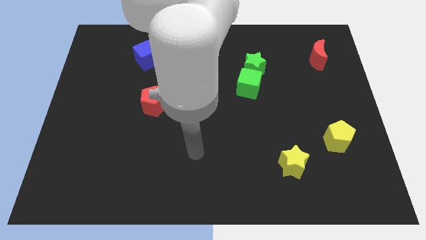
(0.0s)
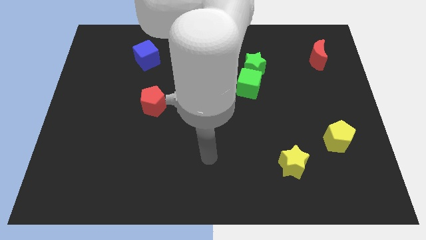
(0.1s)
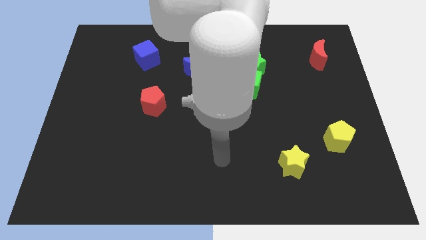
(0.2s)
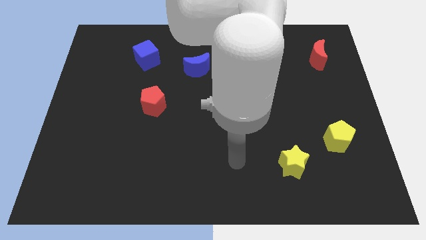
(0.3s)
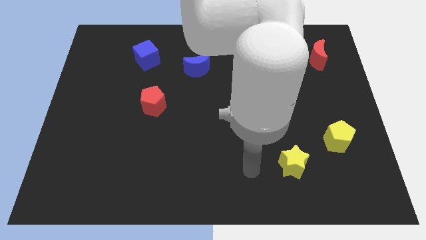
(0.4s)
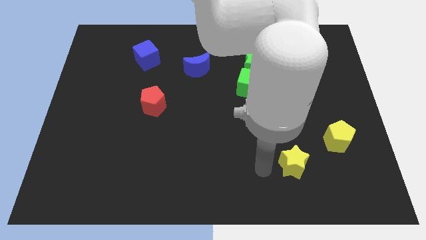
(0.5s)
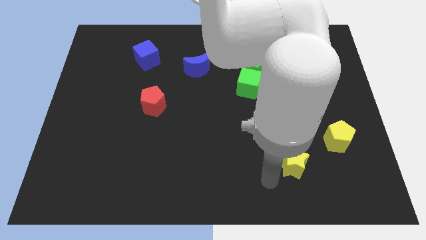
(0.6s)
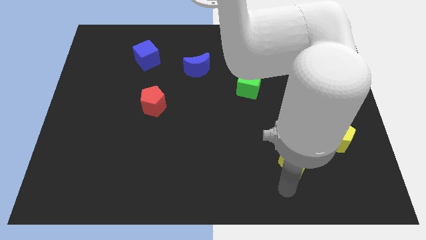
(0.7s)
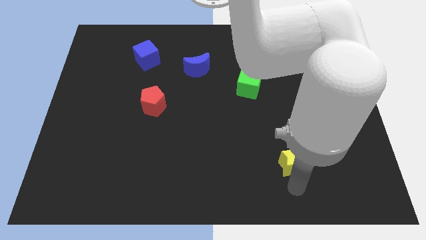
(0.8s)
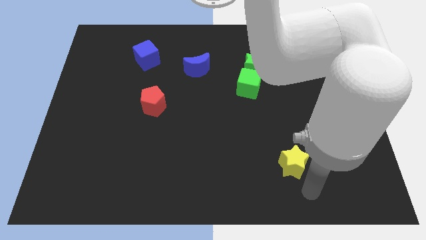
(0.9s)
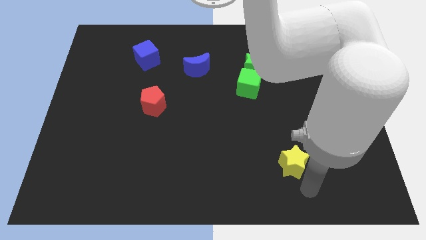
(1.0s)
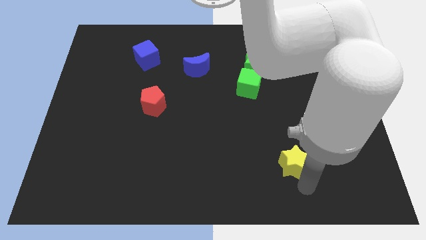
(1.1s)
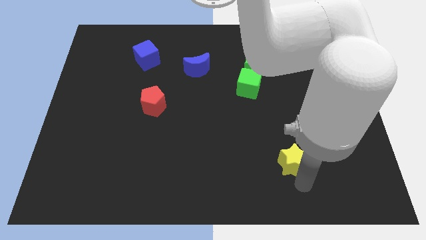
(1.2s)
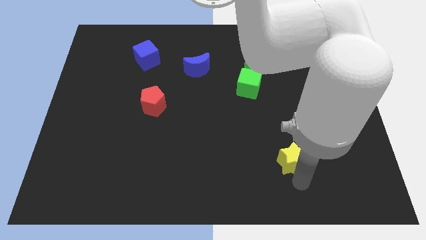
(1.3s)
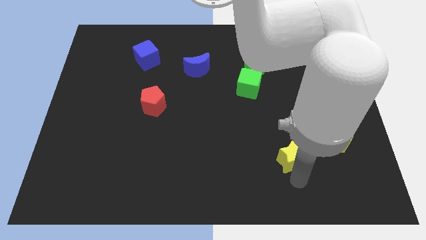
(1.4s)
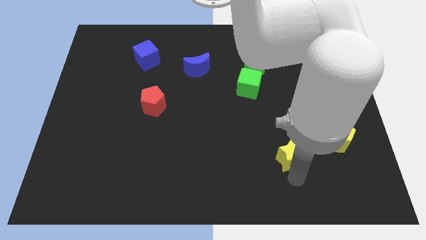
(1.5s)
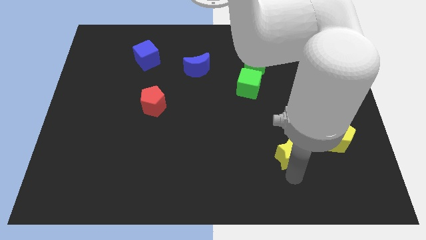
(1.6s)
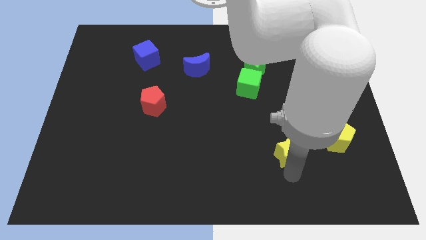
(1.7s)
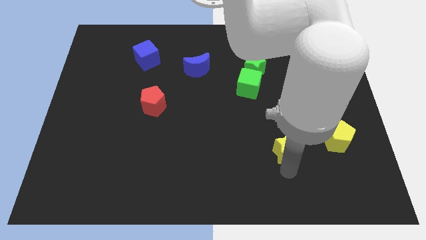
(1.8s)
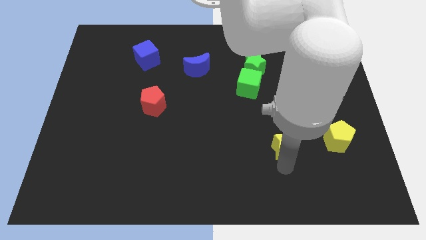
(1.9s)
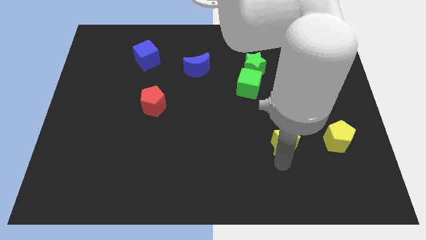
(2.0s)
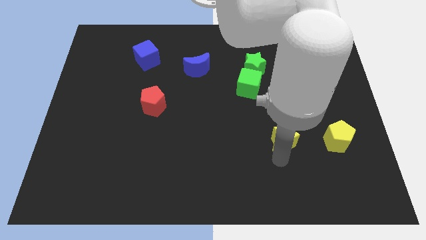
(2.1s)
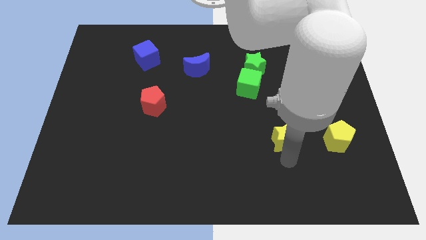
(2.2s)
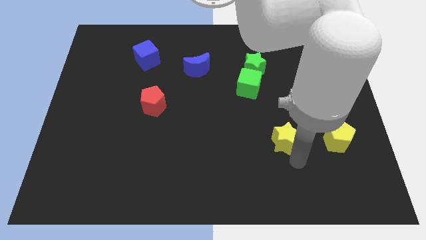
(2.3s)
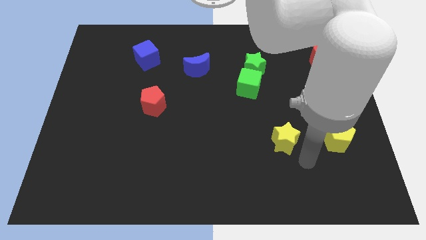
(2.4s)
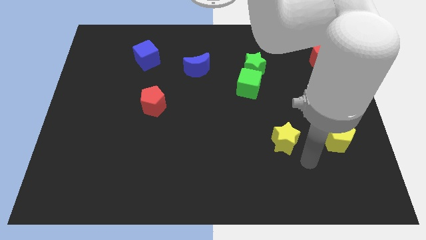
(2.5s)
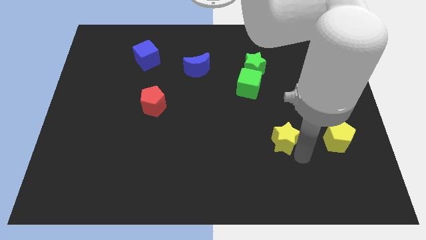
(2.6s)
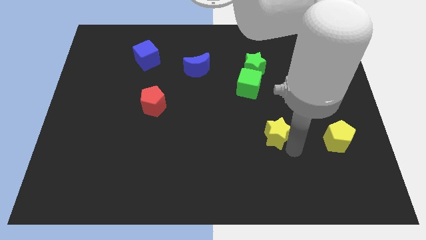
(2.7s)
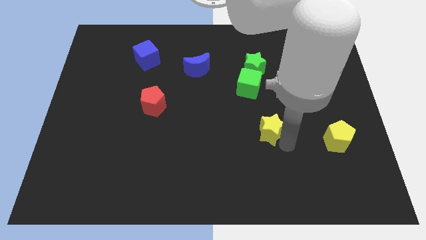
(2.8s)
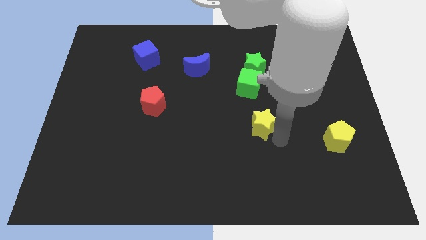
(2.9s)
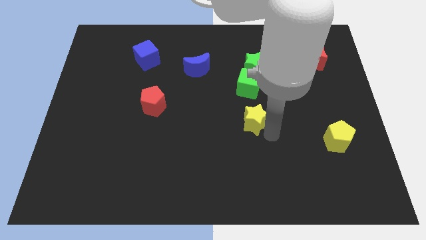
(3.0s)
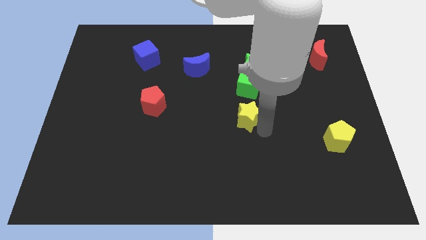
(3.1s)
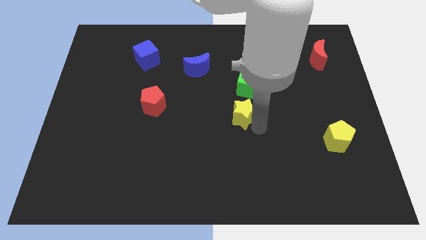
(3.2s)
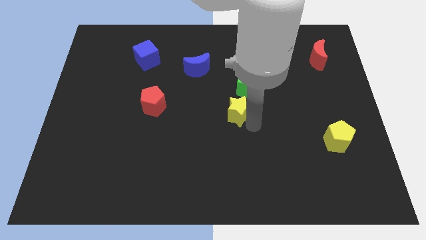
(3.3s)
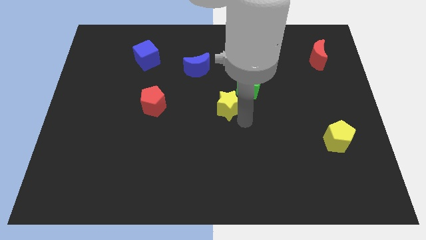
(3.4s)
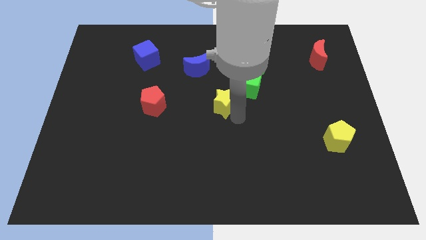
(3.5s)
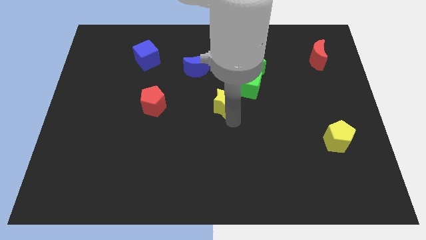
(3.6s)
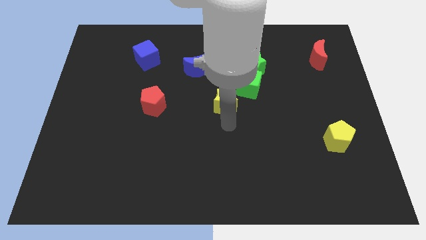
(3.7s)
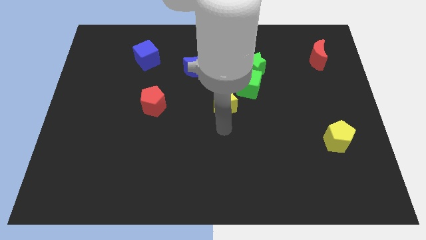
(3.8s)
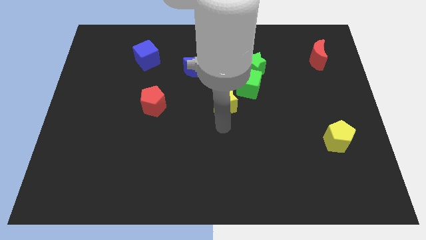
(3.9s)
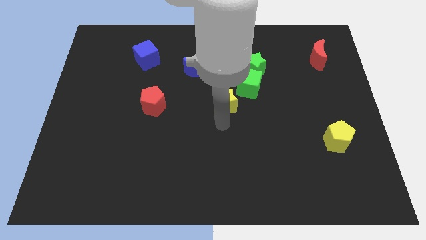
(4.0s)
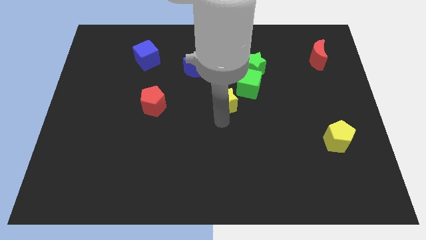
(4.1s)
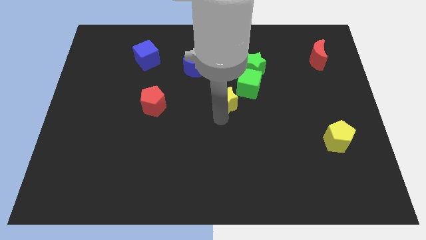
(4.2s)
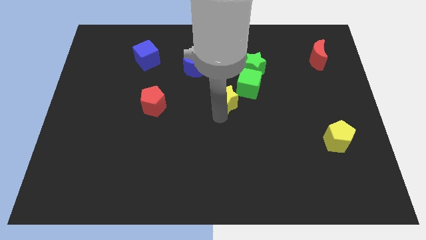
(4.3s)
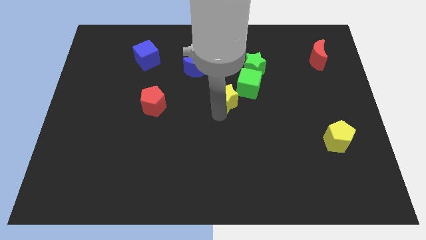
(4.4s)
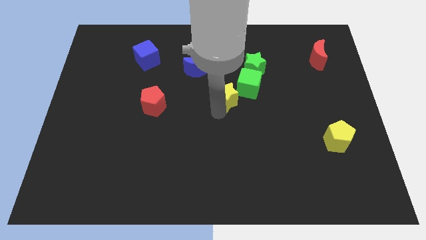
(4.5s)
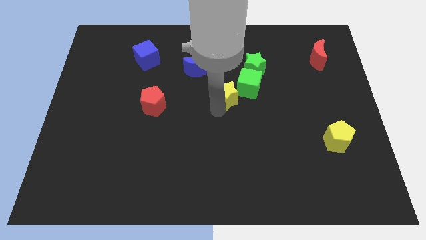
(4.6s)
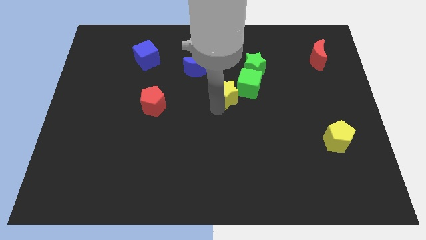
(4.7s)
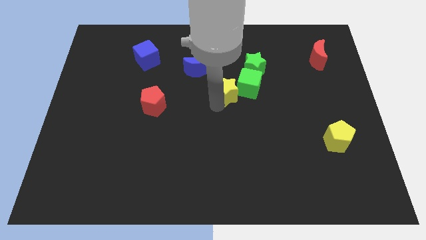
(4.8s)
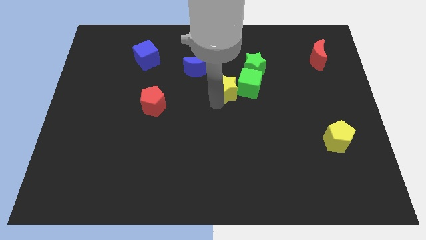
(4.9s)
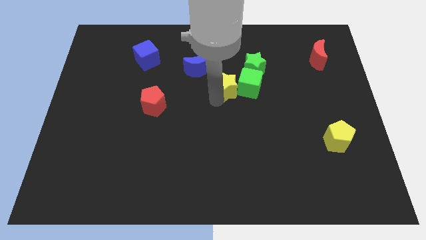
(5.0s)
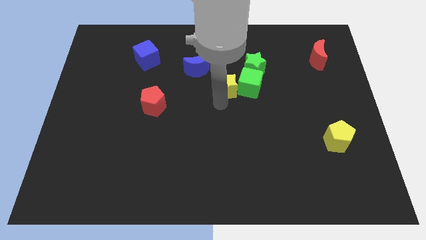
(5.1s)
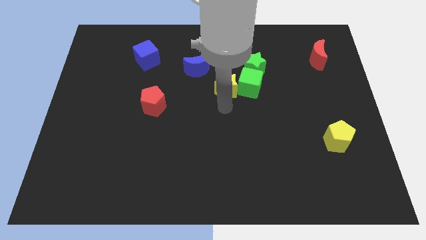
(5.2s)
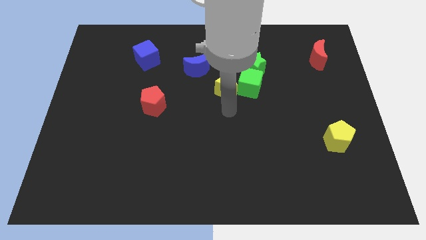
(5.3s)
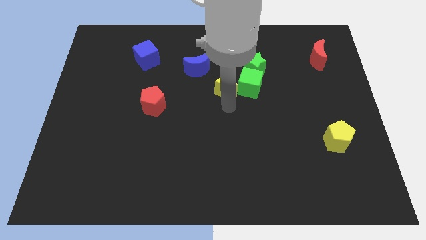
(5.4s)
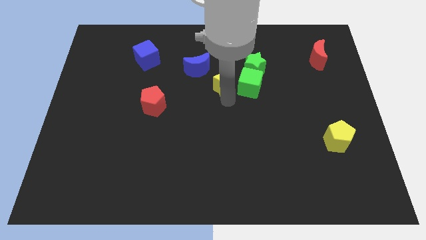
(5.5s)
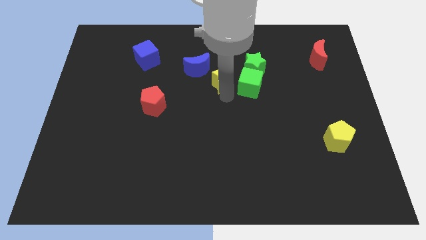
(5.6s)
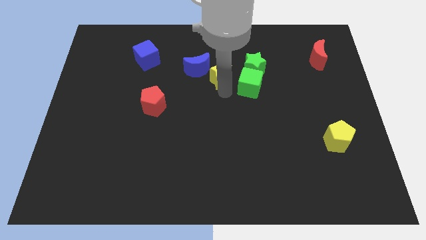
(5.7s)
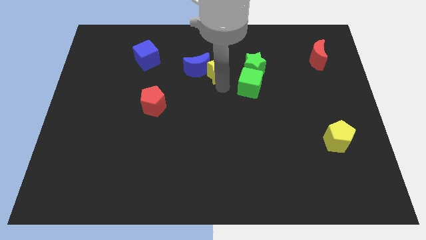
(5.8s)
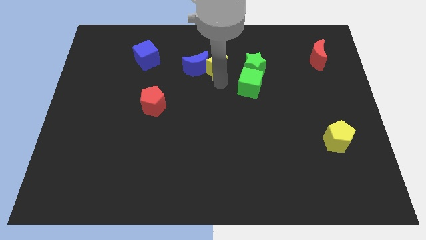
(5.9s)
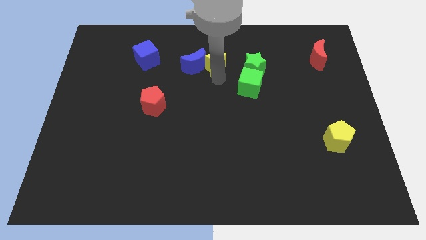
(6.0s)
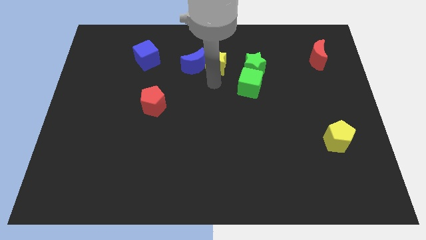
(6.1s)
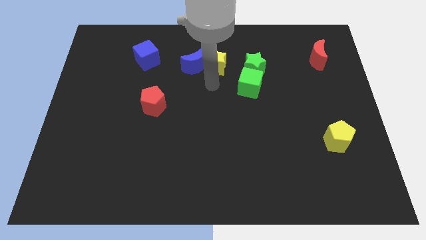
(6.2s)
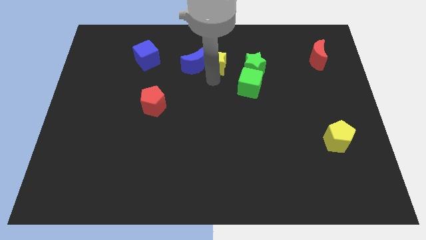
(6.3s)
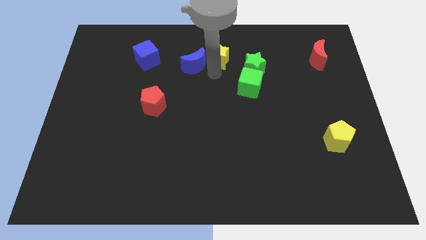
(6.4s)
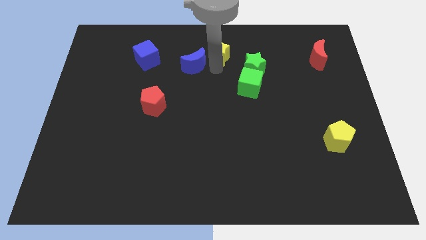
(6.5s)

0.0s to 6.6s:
move the yellow star to the top
